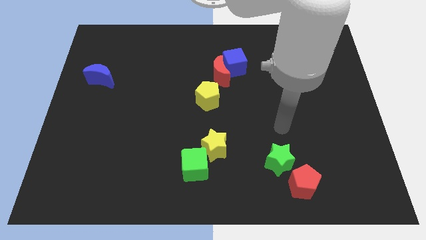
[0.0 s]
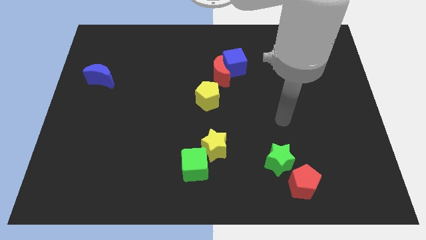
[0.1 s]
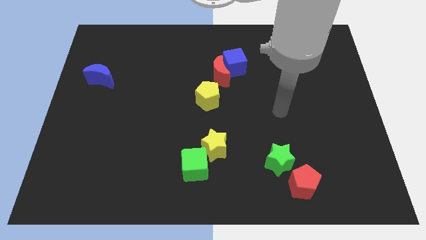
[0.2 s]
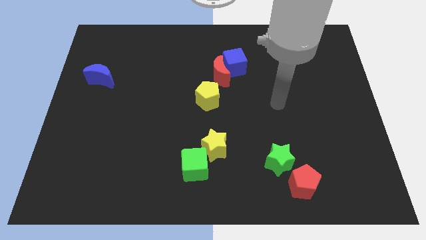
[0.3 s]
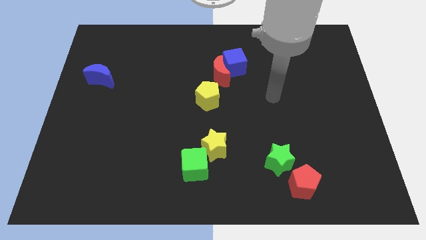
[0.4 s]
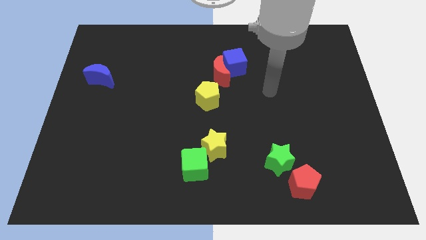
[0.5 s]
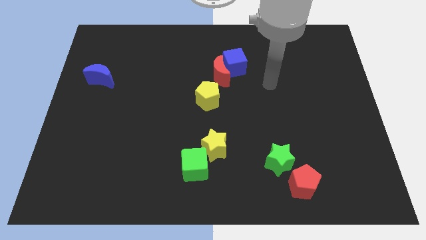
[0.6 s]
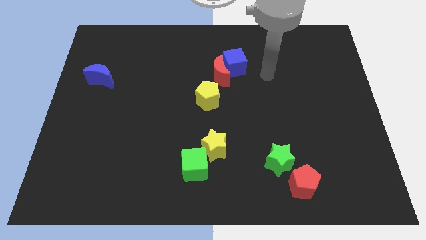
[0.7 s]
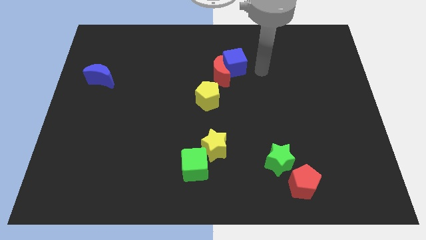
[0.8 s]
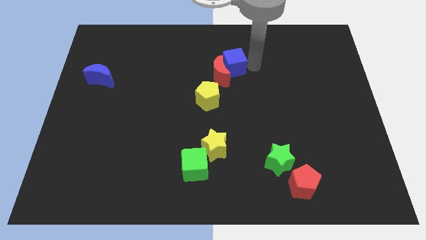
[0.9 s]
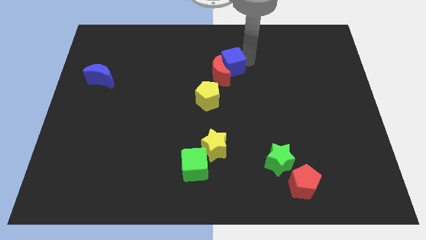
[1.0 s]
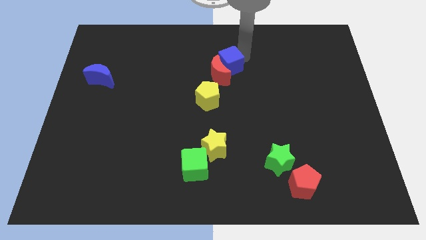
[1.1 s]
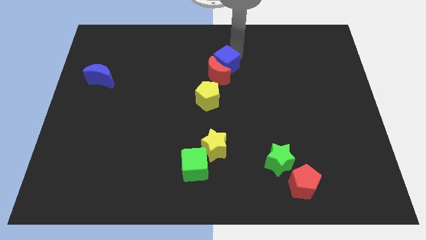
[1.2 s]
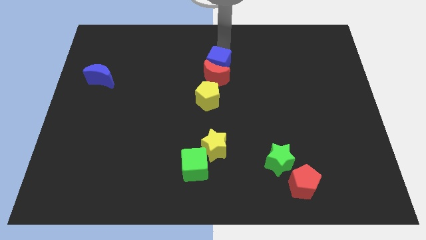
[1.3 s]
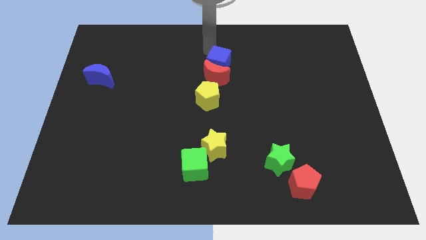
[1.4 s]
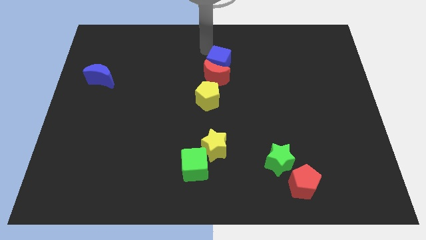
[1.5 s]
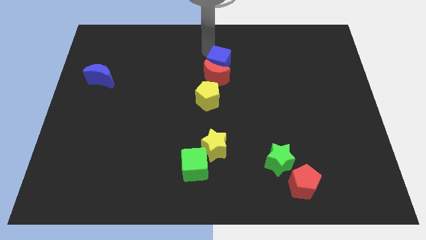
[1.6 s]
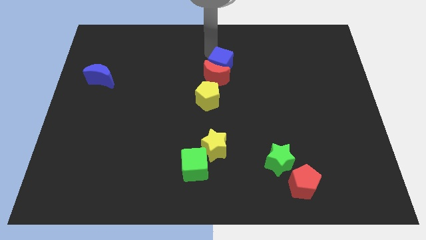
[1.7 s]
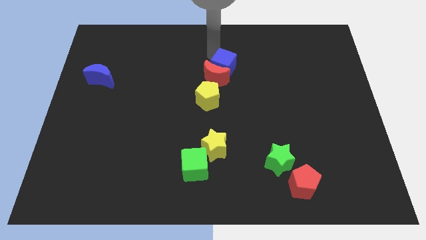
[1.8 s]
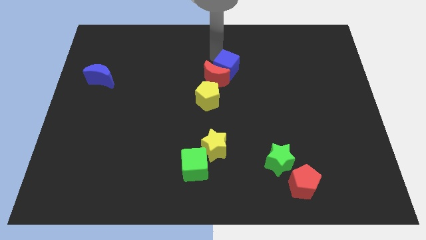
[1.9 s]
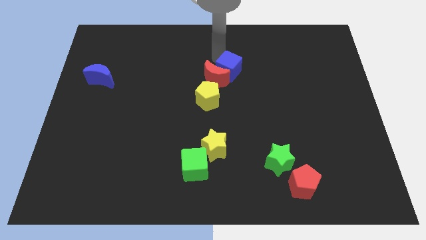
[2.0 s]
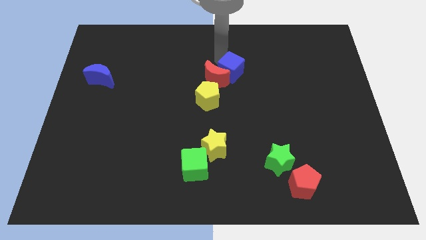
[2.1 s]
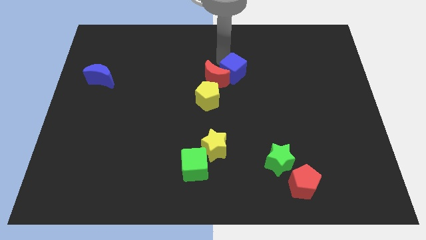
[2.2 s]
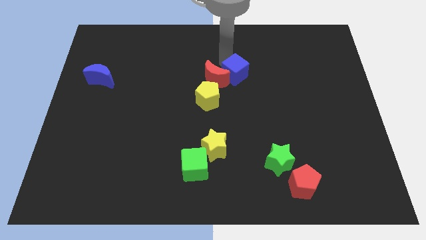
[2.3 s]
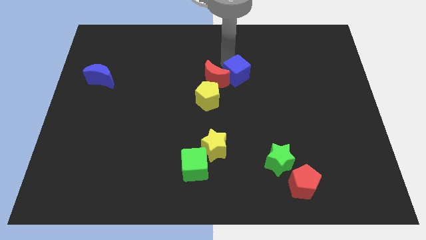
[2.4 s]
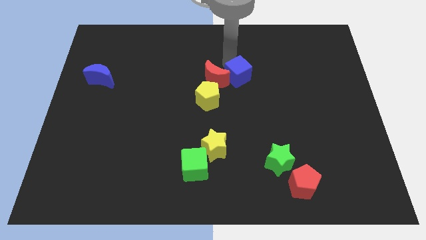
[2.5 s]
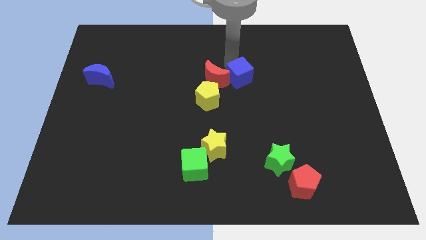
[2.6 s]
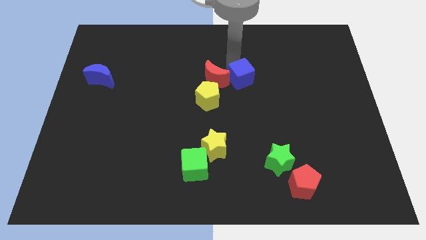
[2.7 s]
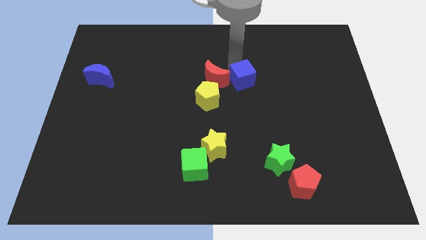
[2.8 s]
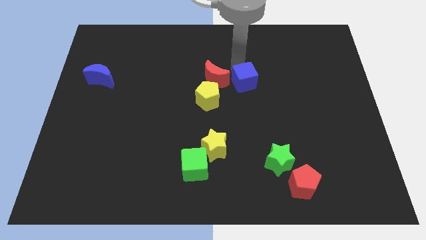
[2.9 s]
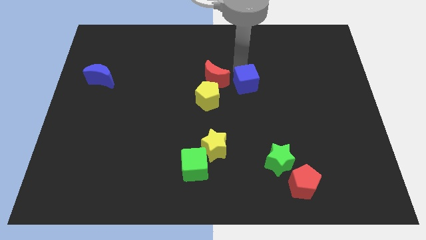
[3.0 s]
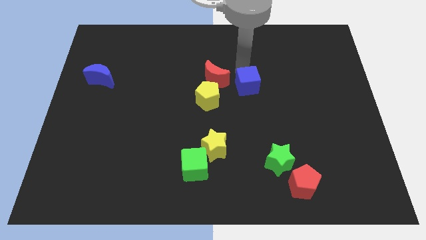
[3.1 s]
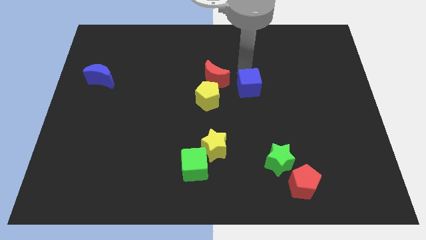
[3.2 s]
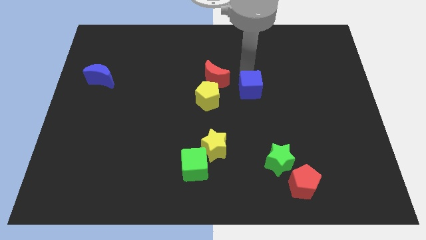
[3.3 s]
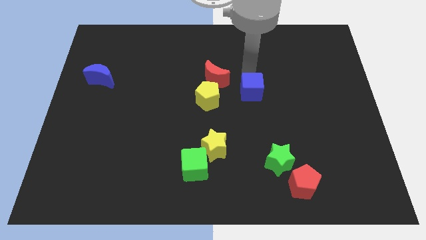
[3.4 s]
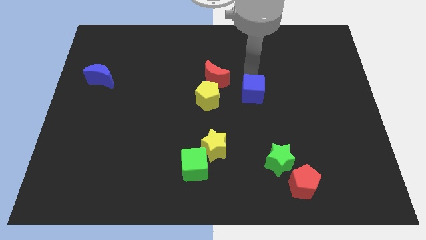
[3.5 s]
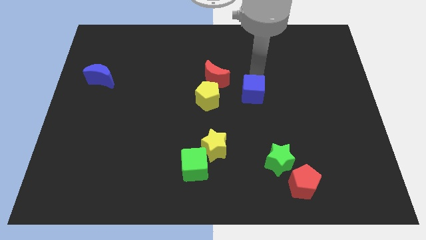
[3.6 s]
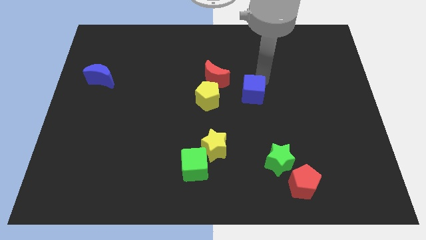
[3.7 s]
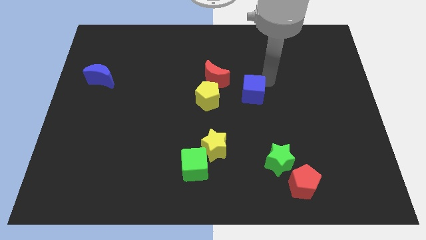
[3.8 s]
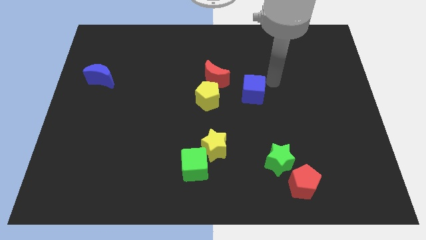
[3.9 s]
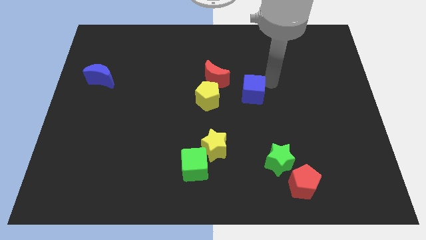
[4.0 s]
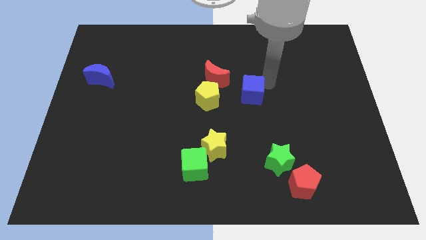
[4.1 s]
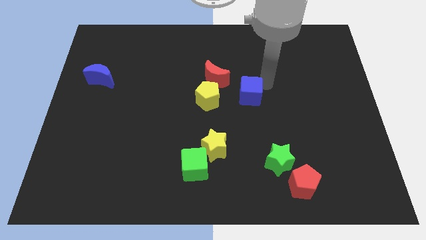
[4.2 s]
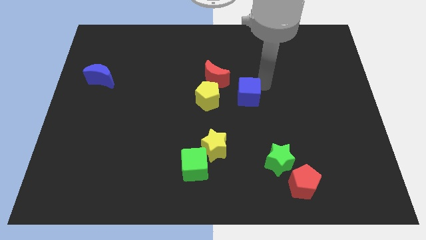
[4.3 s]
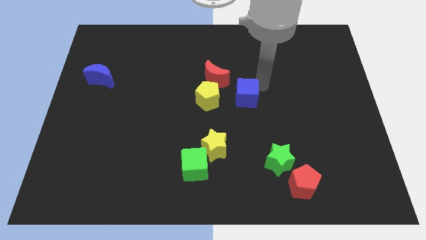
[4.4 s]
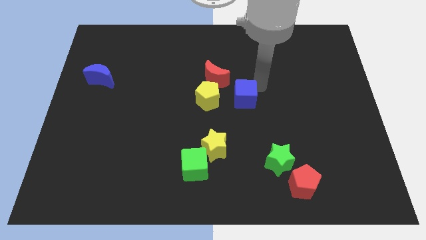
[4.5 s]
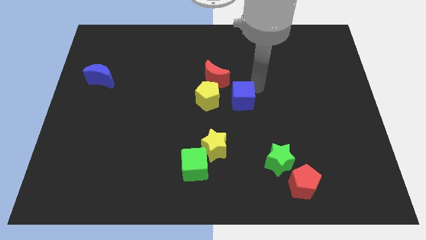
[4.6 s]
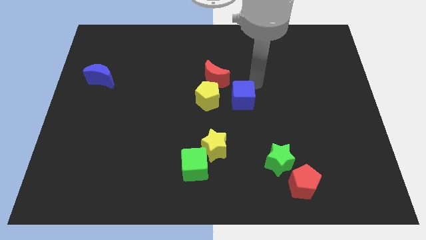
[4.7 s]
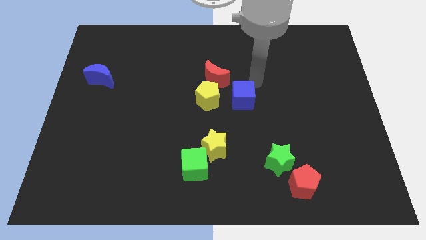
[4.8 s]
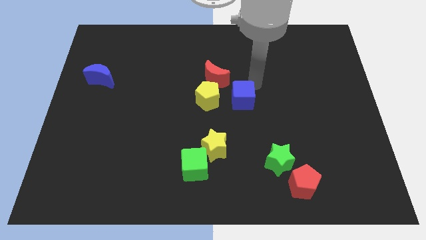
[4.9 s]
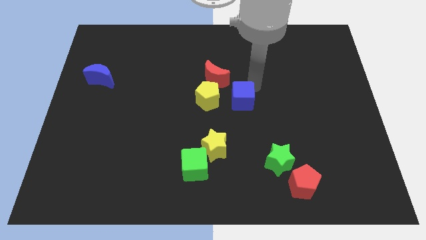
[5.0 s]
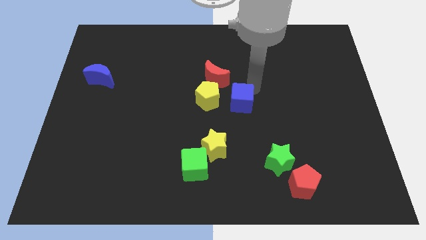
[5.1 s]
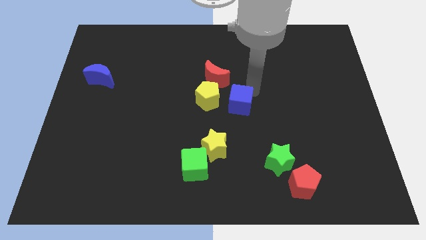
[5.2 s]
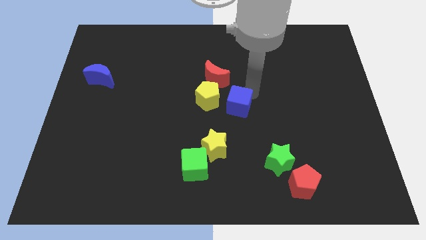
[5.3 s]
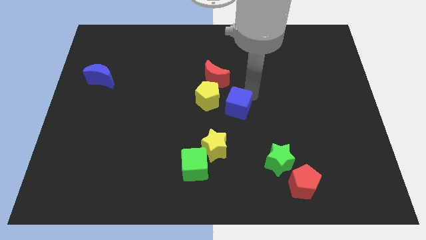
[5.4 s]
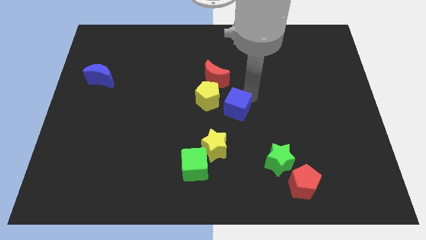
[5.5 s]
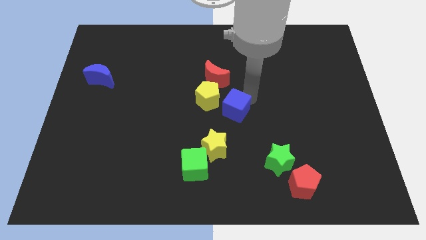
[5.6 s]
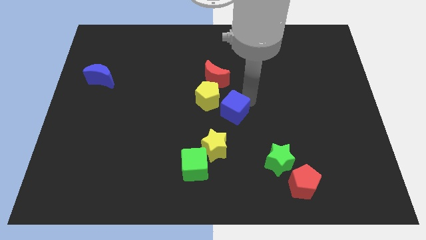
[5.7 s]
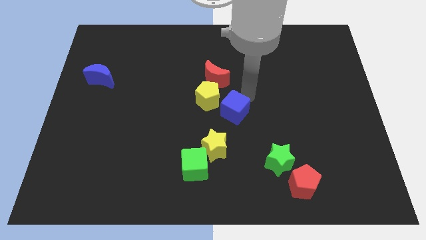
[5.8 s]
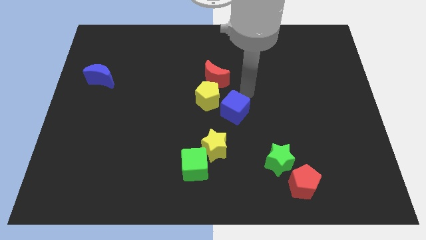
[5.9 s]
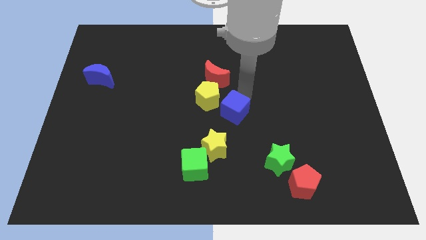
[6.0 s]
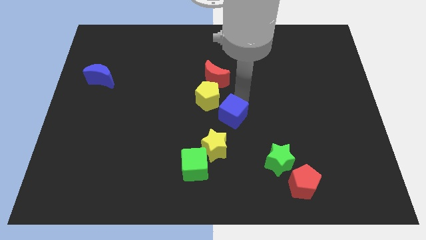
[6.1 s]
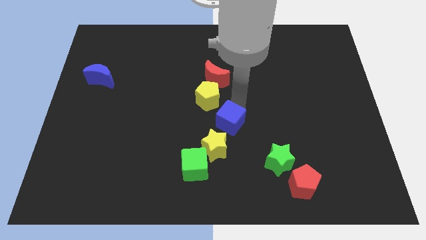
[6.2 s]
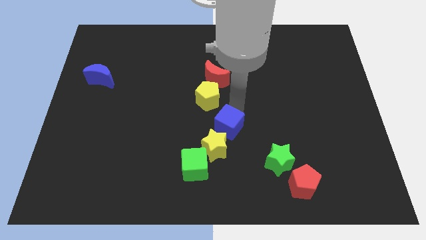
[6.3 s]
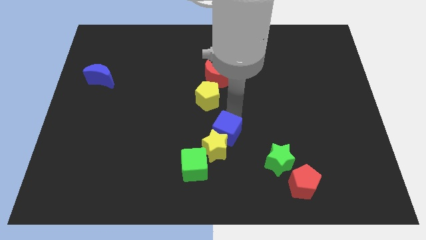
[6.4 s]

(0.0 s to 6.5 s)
slide the blue cube close to the yellow star

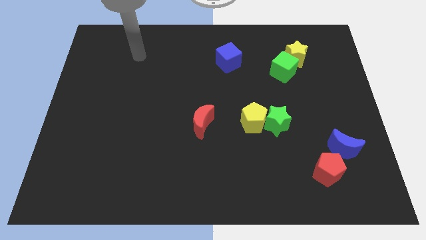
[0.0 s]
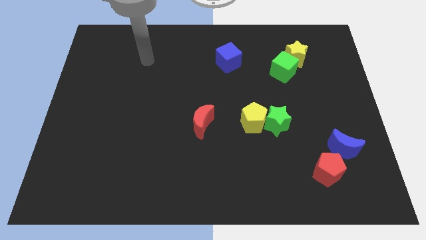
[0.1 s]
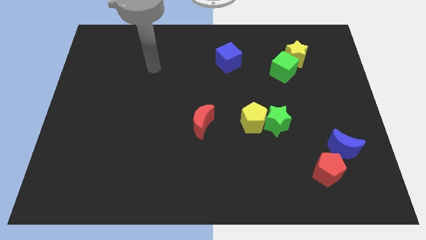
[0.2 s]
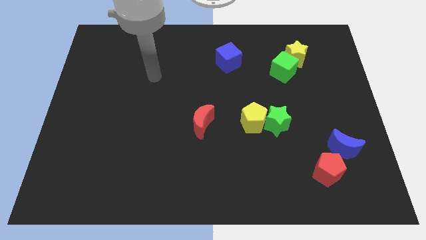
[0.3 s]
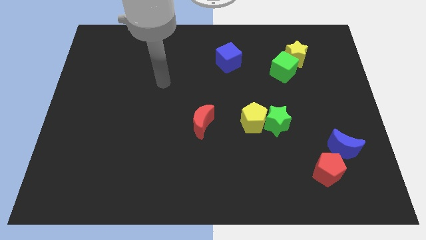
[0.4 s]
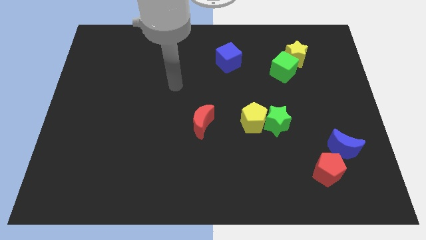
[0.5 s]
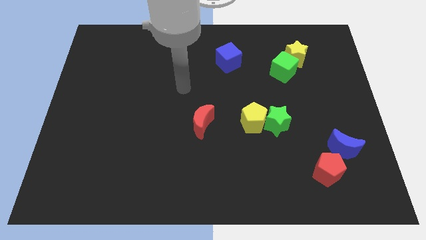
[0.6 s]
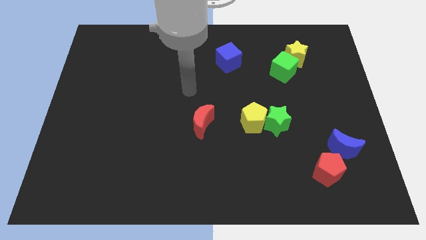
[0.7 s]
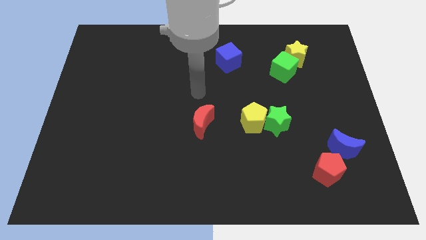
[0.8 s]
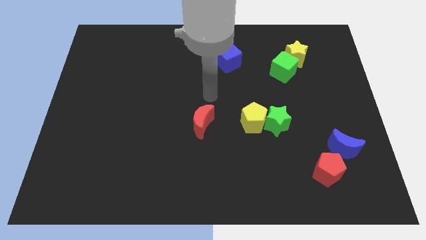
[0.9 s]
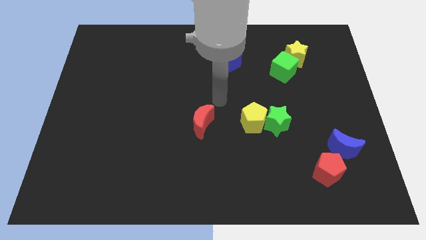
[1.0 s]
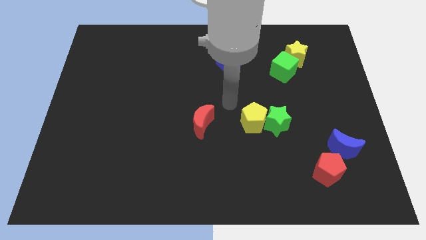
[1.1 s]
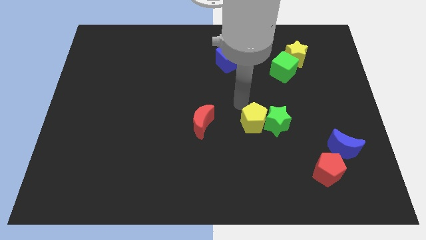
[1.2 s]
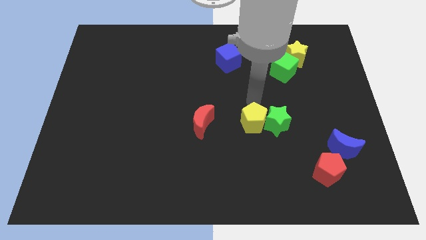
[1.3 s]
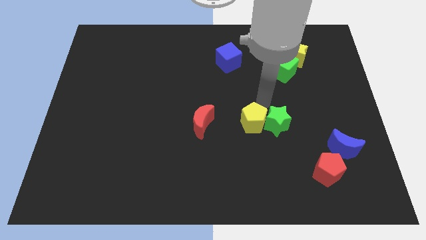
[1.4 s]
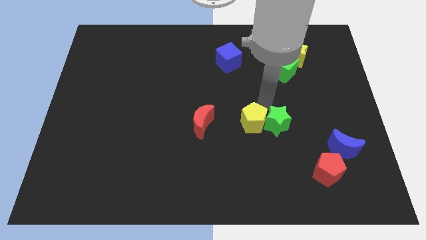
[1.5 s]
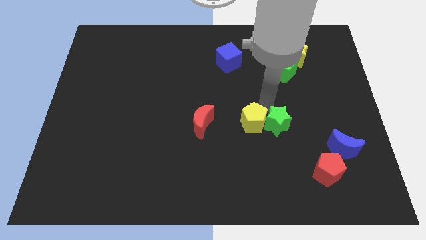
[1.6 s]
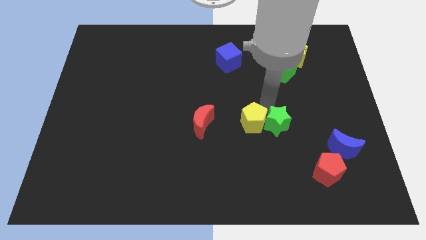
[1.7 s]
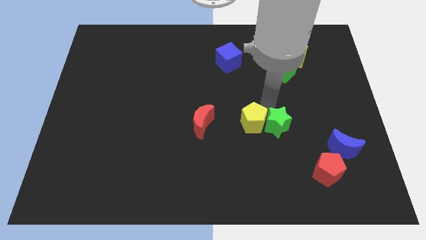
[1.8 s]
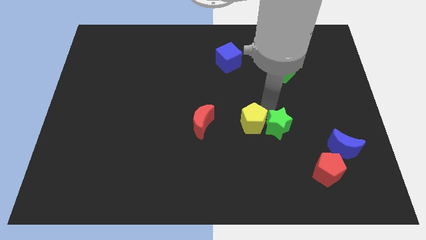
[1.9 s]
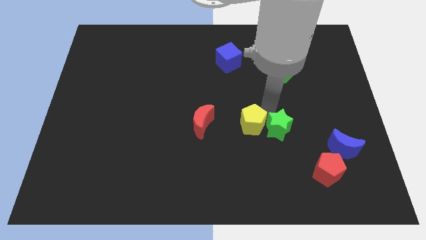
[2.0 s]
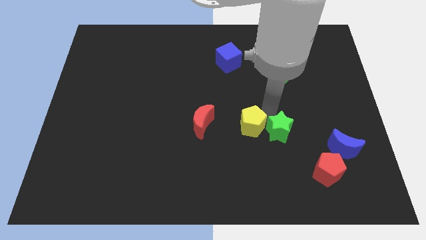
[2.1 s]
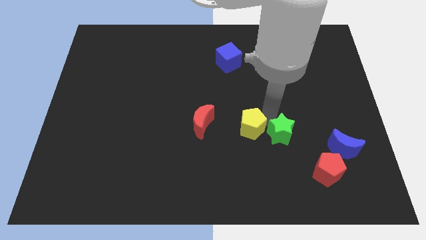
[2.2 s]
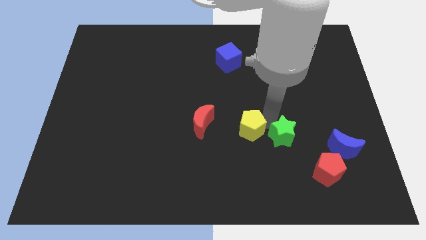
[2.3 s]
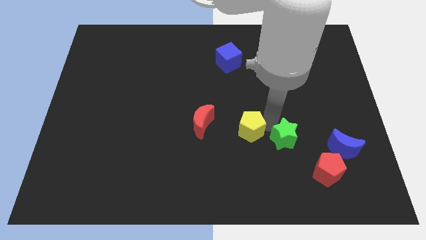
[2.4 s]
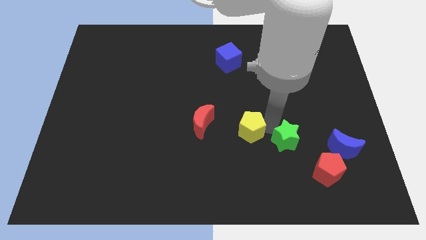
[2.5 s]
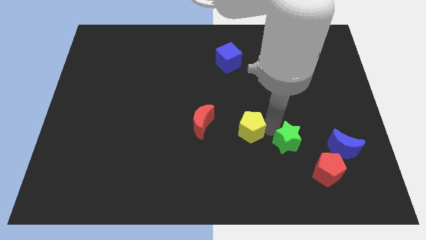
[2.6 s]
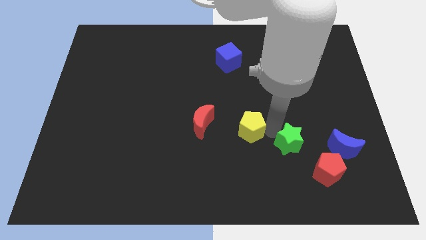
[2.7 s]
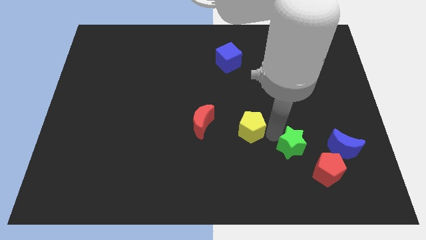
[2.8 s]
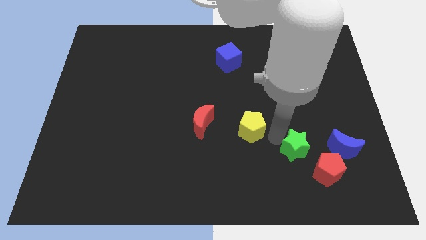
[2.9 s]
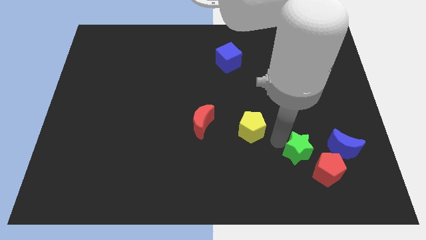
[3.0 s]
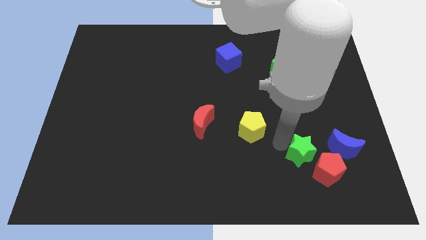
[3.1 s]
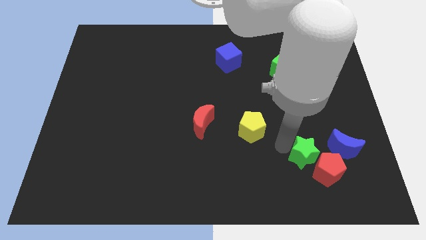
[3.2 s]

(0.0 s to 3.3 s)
move the green star close to the red pentagon
